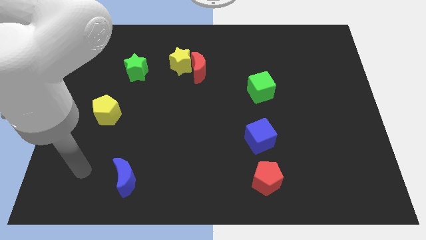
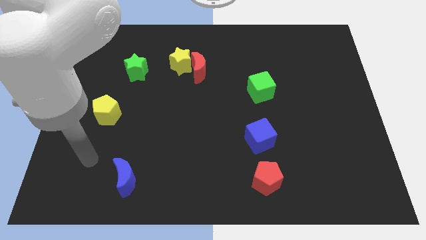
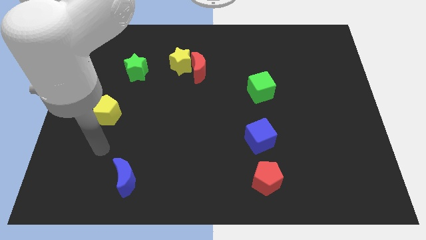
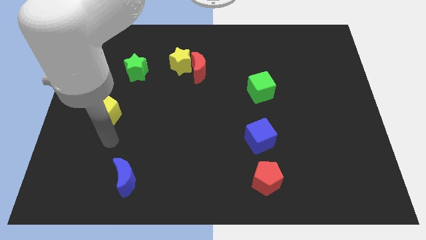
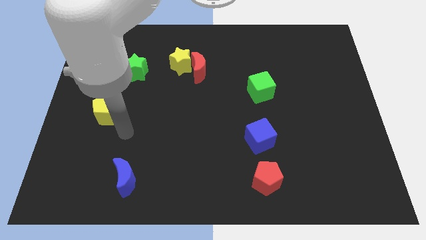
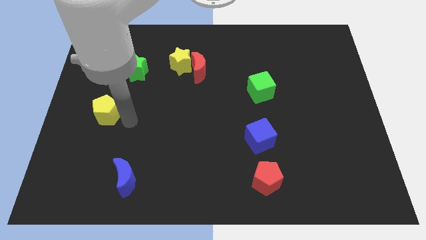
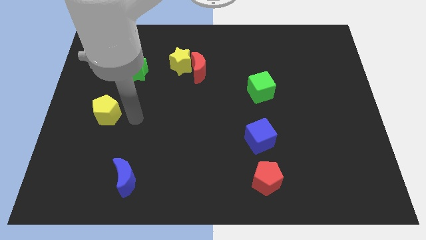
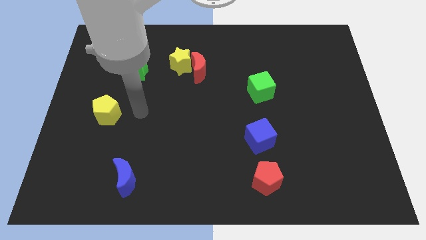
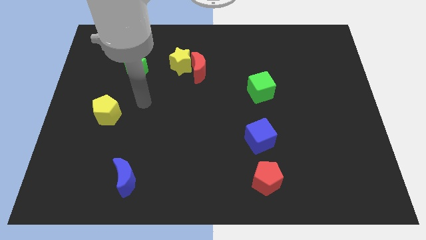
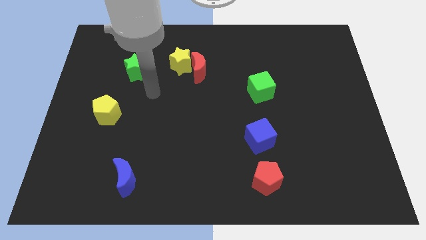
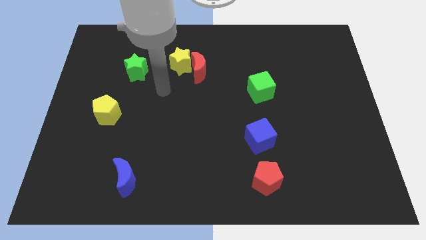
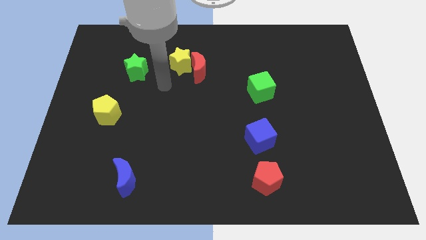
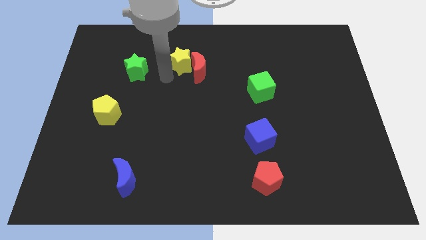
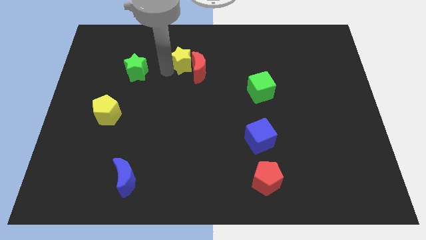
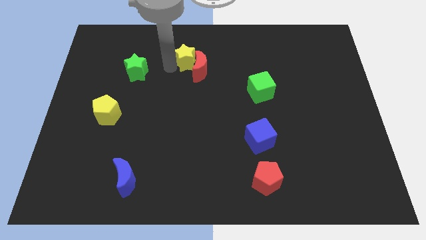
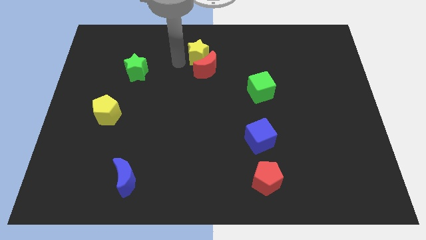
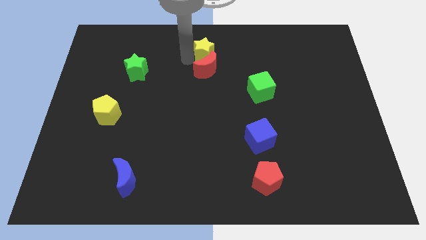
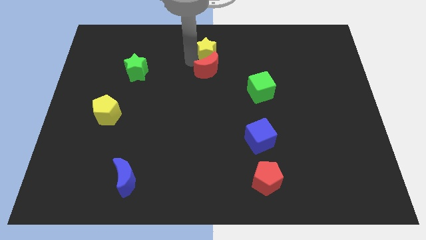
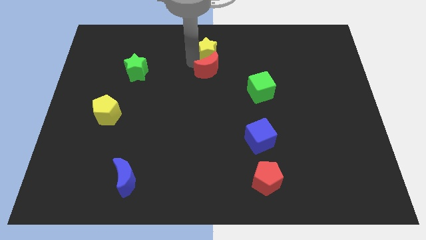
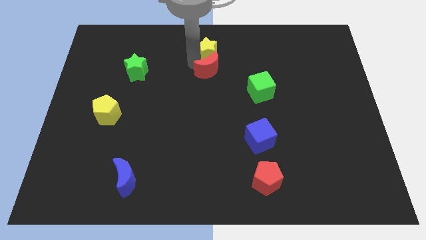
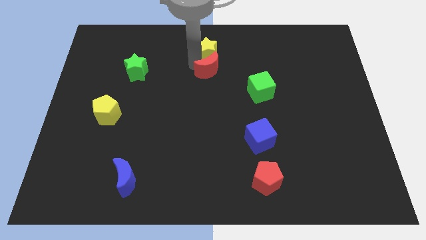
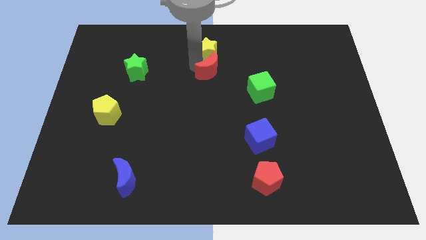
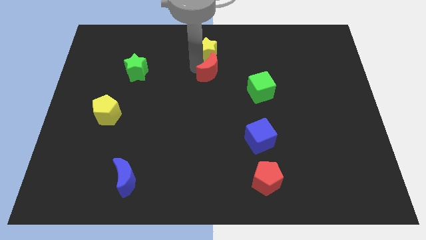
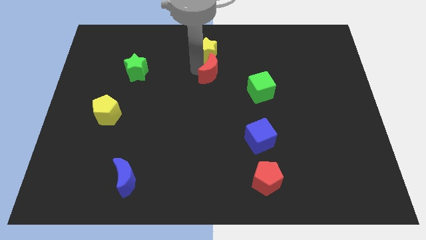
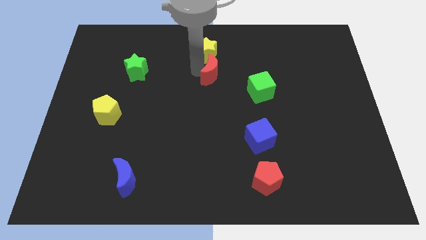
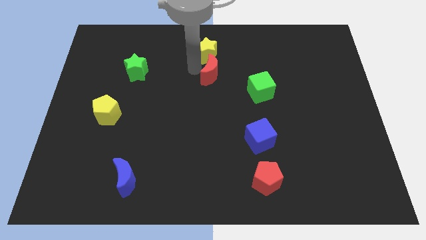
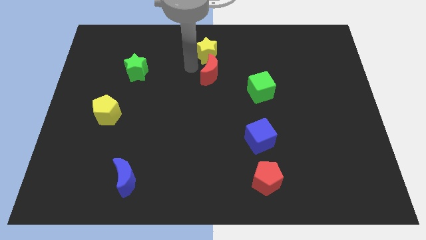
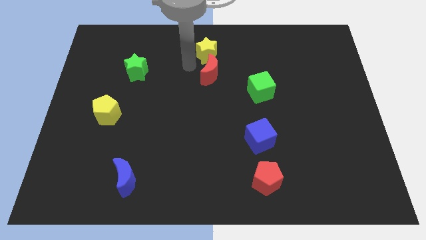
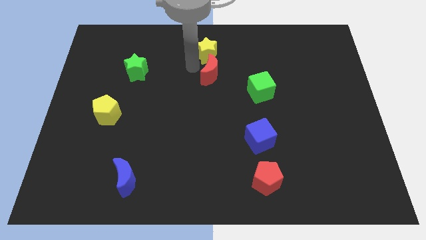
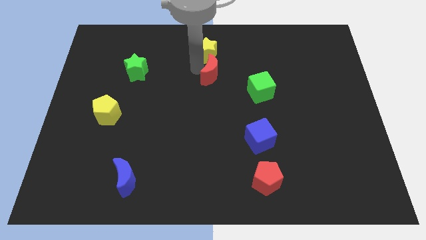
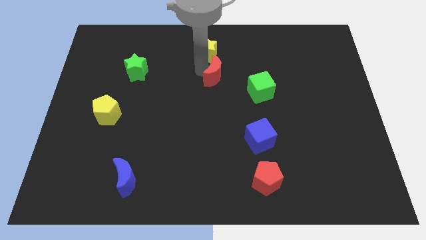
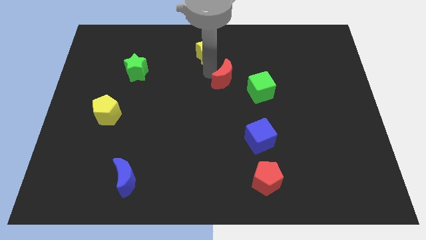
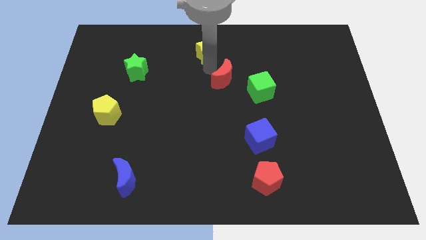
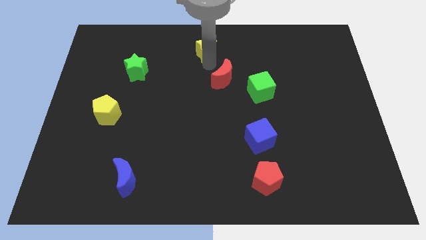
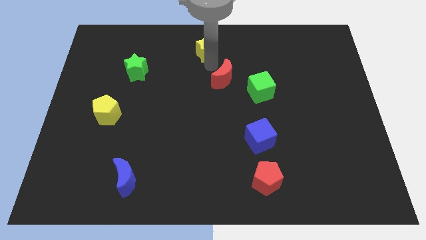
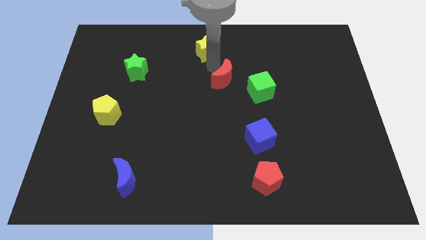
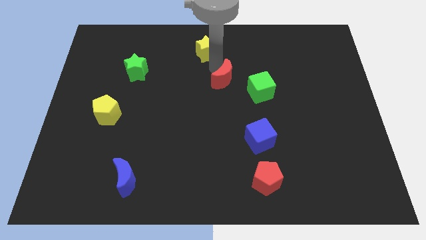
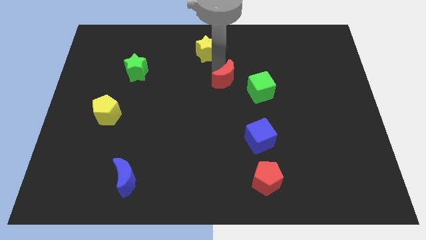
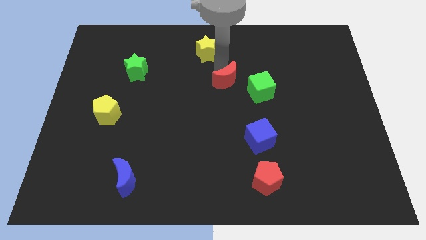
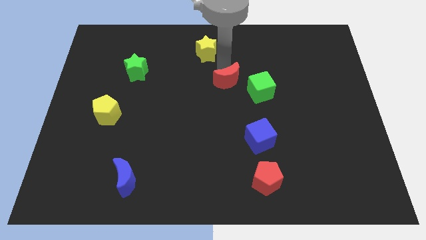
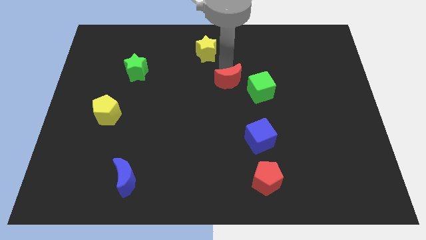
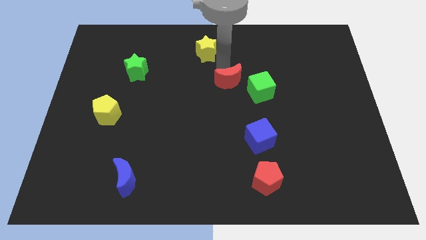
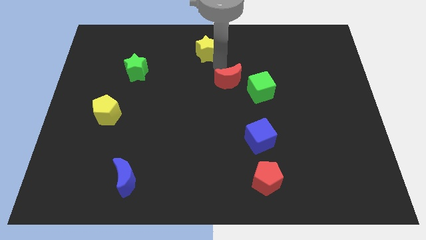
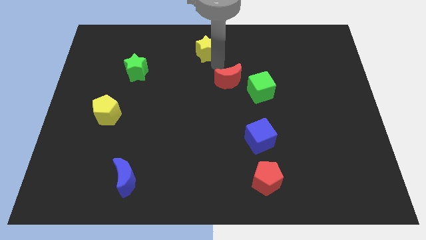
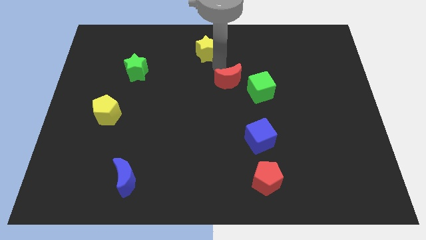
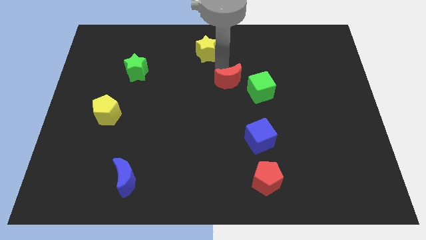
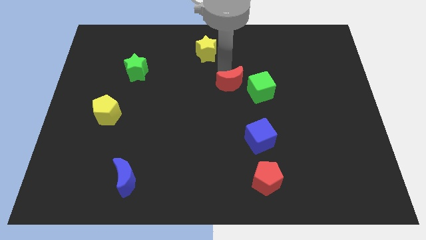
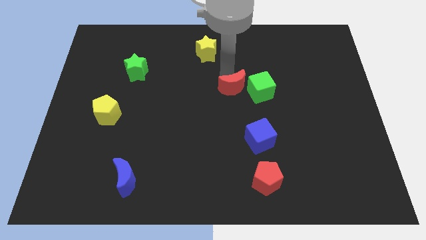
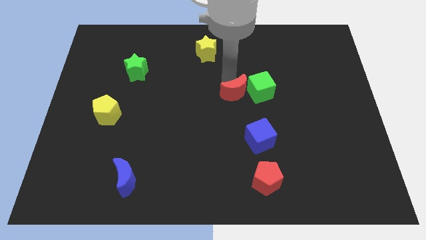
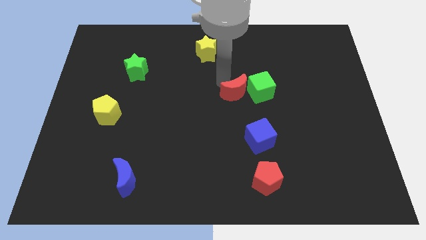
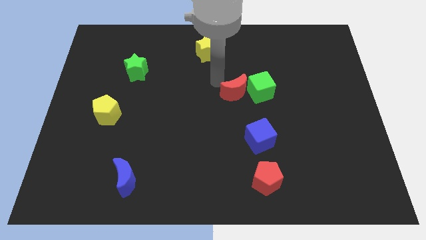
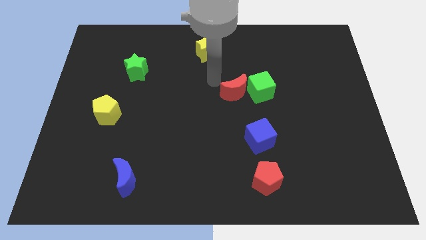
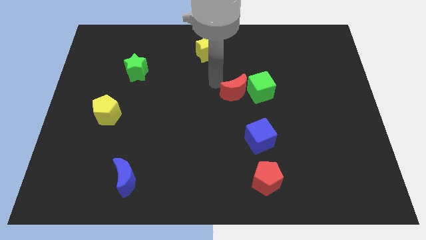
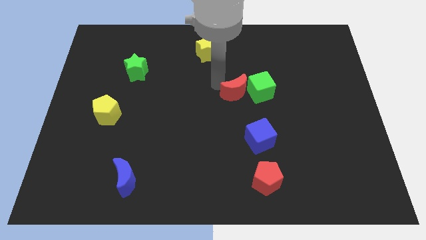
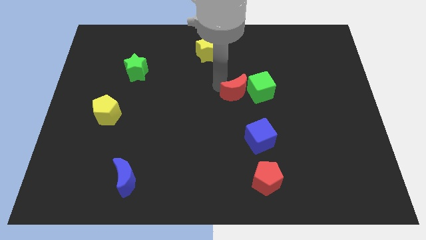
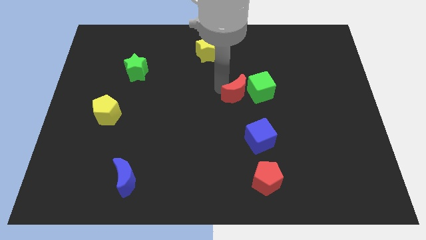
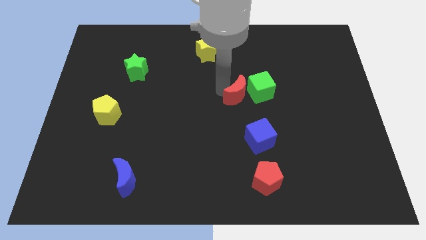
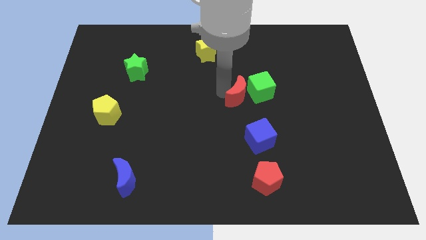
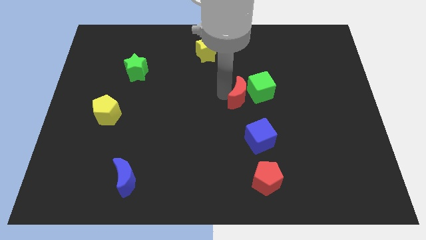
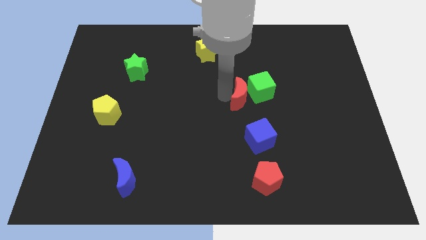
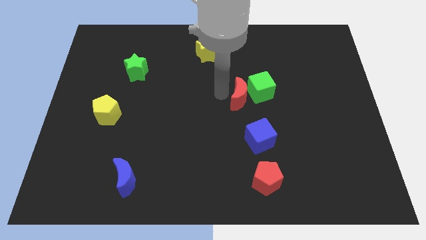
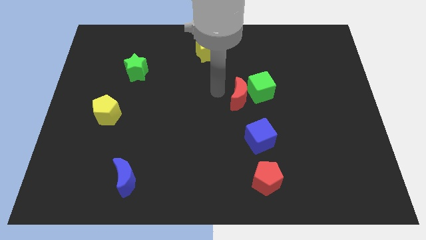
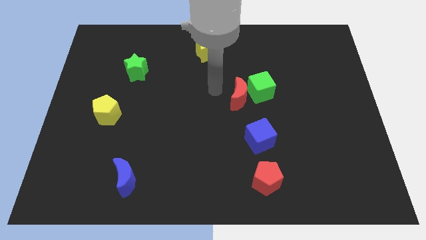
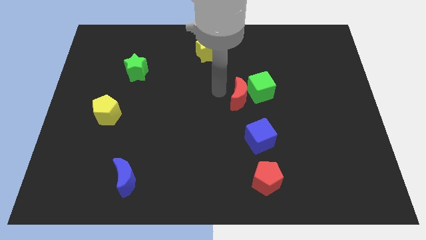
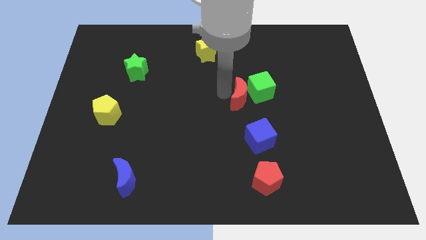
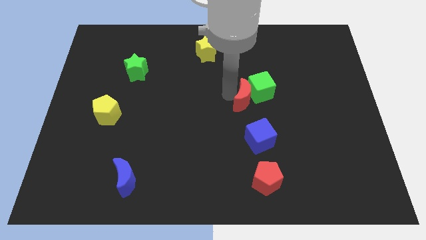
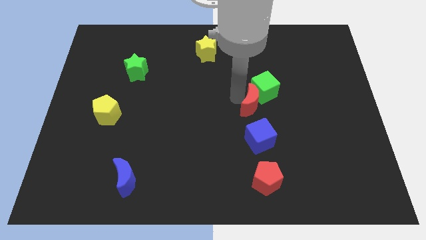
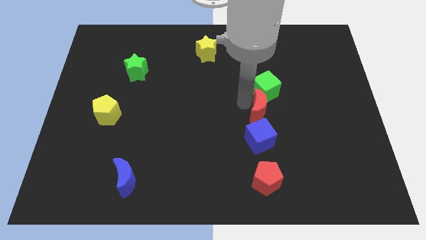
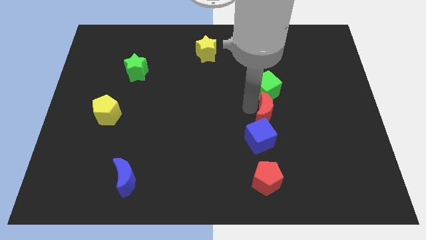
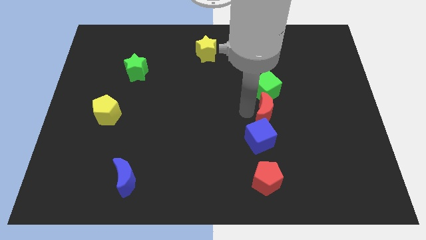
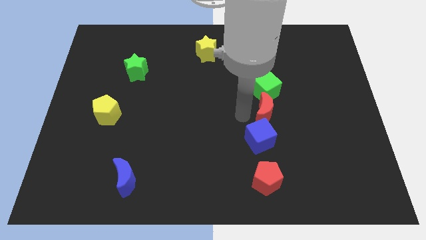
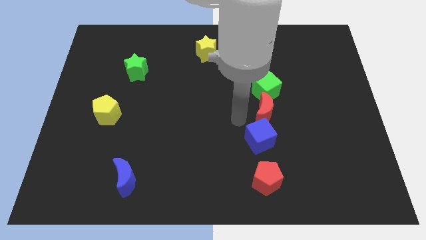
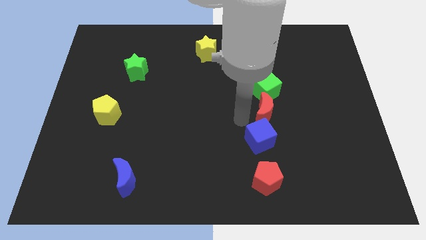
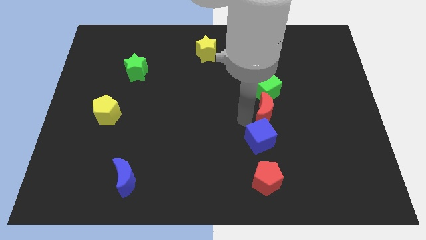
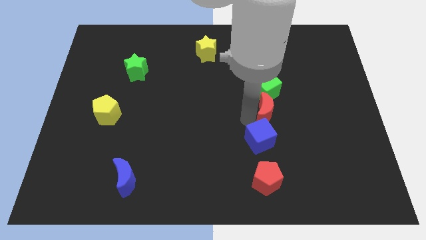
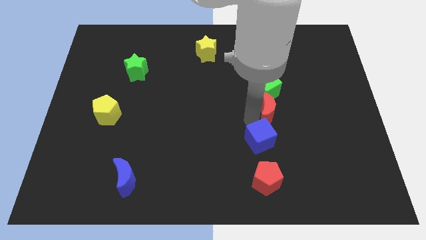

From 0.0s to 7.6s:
push the red moon to the bottom right of the green cube

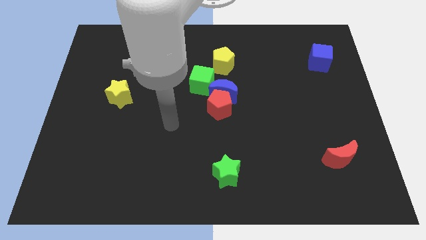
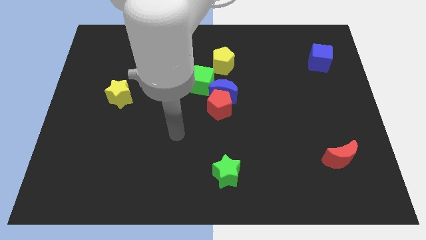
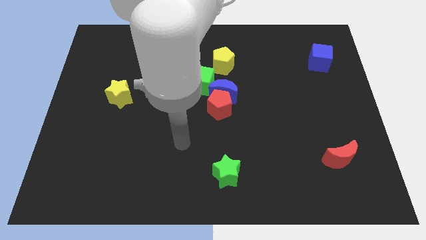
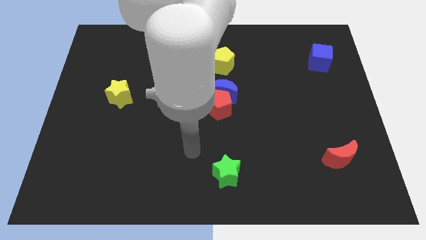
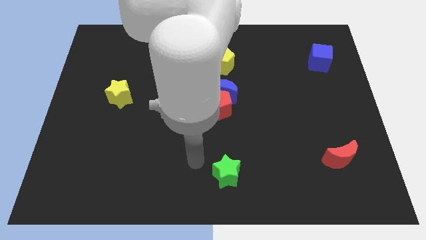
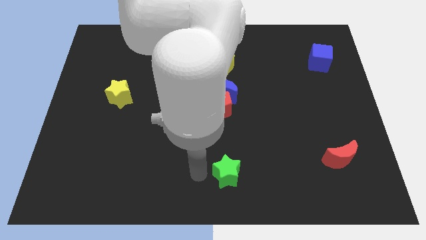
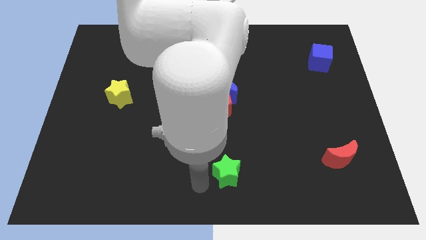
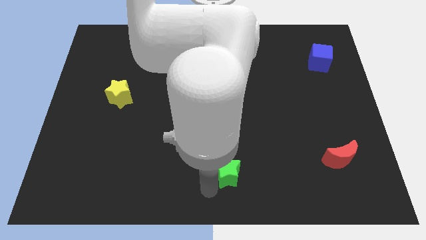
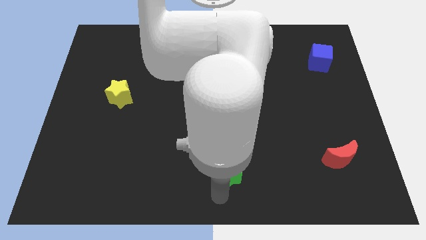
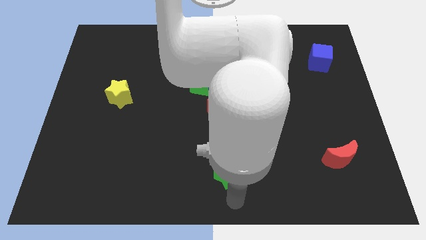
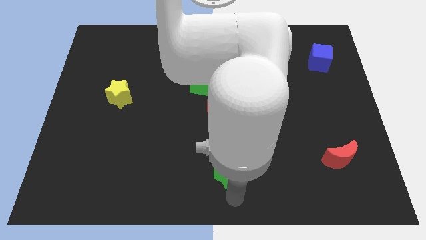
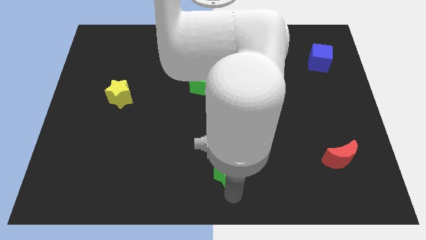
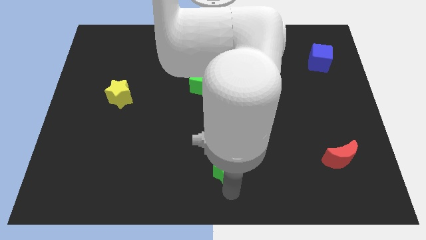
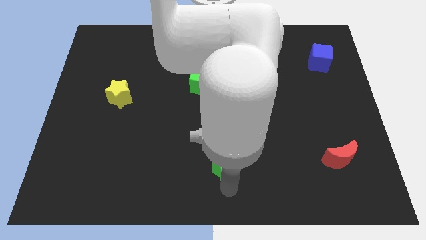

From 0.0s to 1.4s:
slide the green star to the bottom side of the red pentagon
